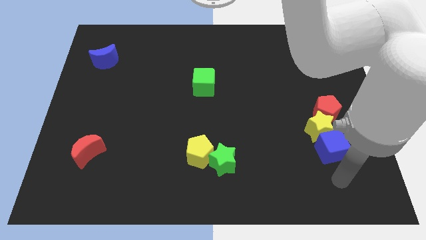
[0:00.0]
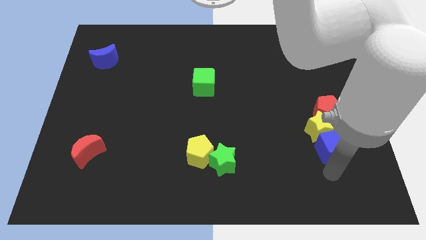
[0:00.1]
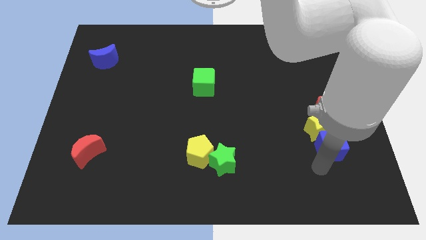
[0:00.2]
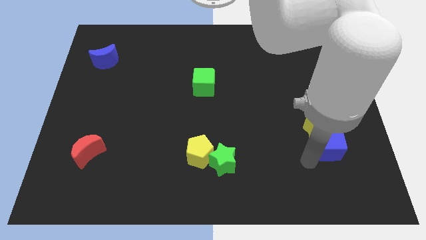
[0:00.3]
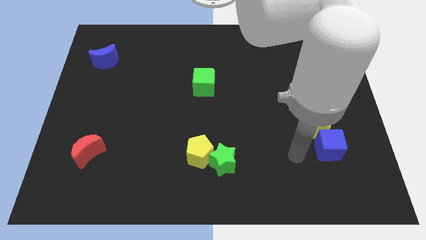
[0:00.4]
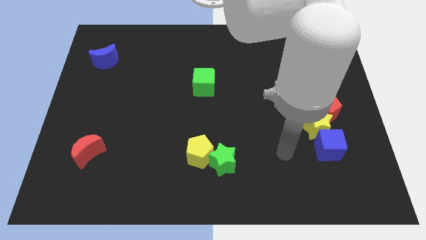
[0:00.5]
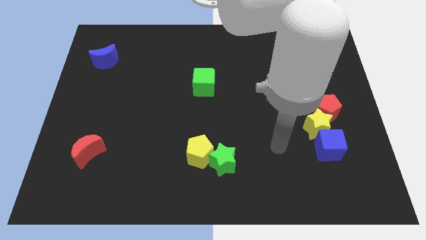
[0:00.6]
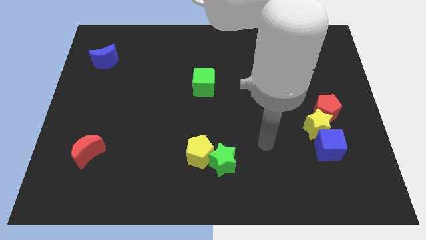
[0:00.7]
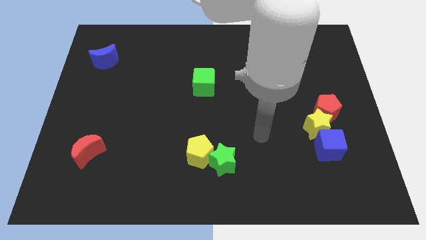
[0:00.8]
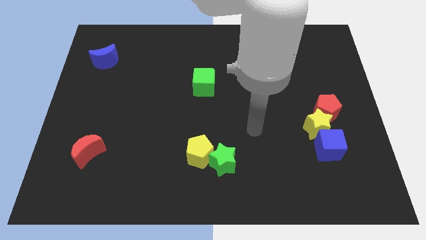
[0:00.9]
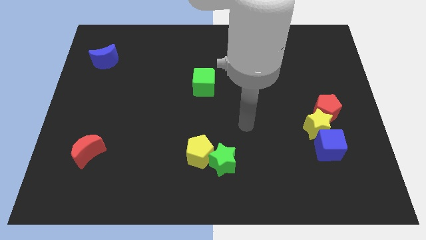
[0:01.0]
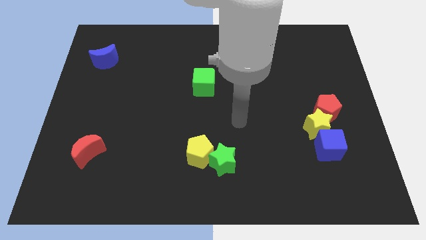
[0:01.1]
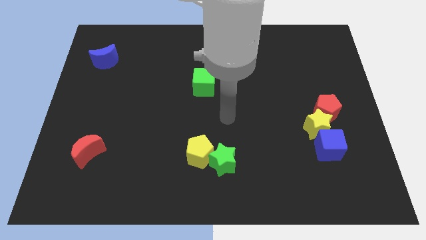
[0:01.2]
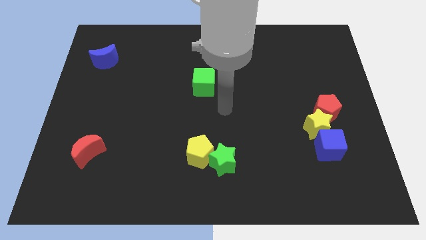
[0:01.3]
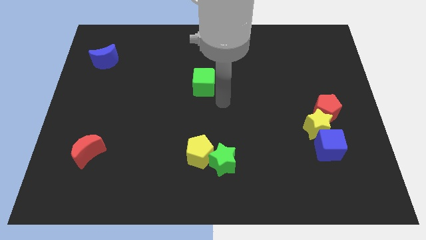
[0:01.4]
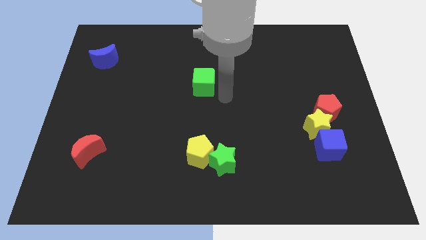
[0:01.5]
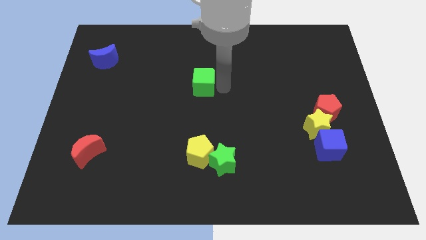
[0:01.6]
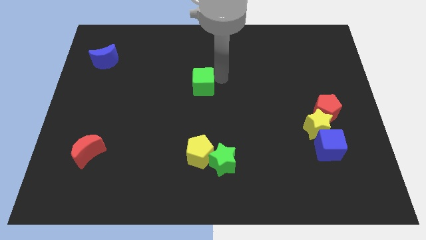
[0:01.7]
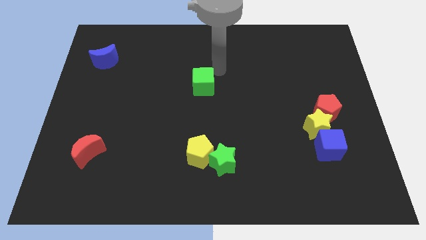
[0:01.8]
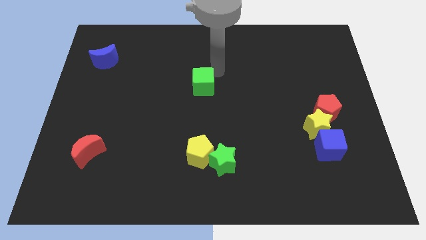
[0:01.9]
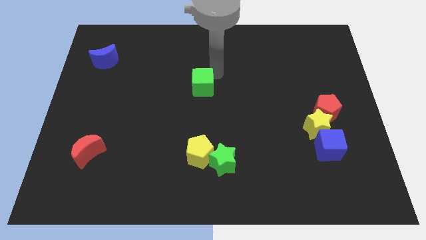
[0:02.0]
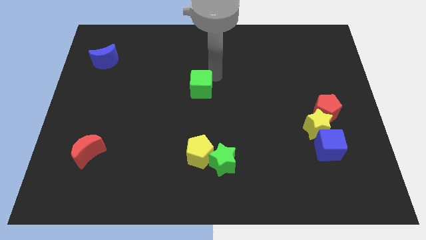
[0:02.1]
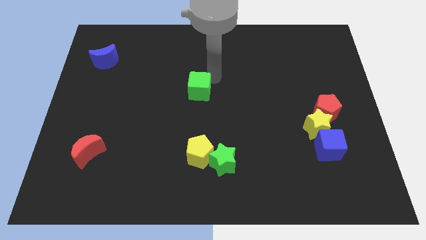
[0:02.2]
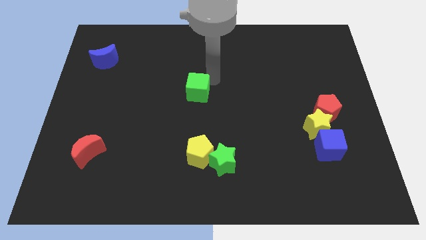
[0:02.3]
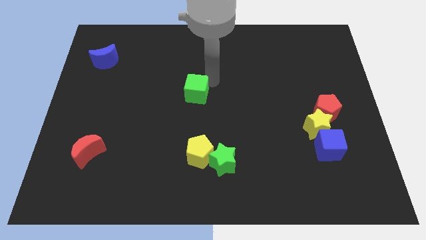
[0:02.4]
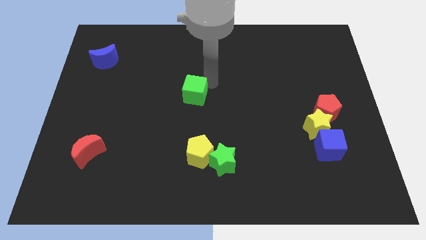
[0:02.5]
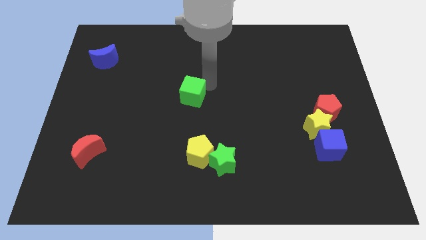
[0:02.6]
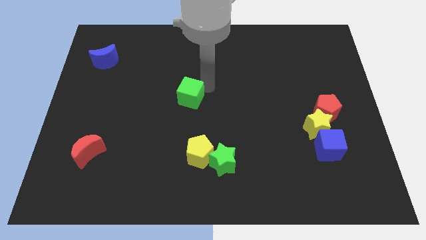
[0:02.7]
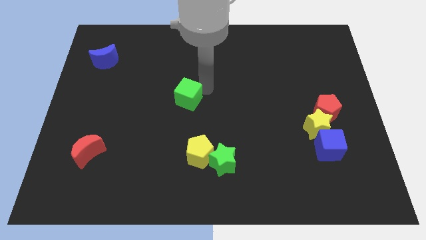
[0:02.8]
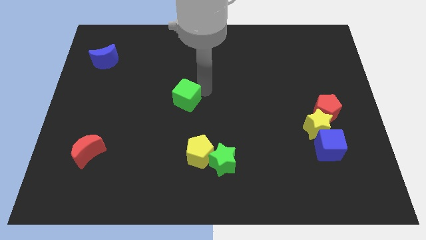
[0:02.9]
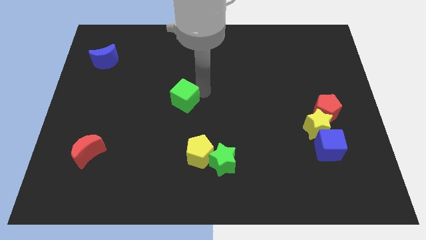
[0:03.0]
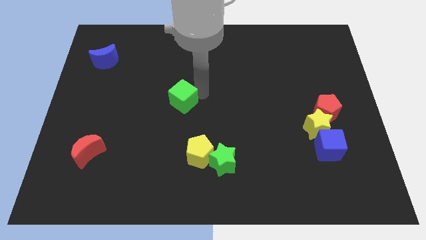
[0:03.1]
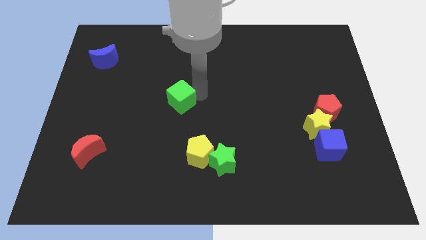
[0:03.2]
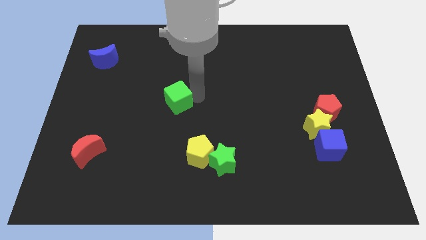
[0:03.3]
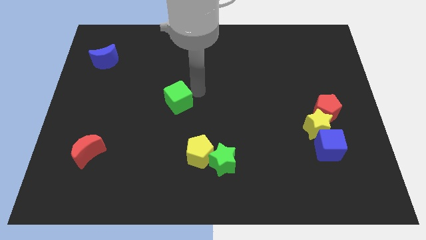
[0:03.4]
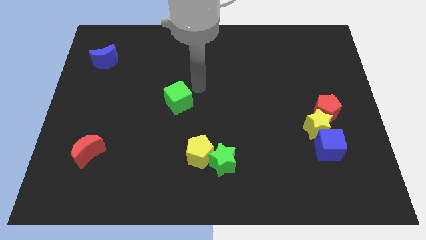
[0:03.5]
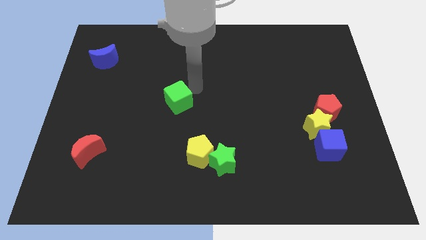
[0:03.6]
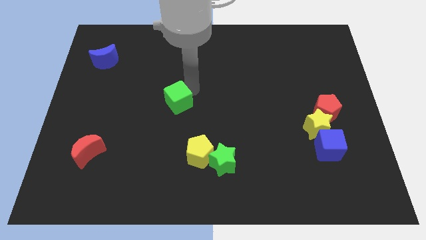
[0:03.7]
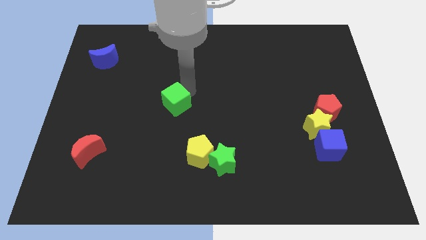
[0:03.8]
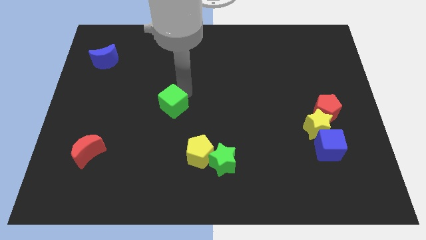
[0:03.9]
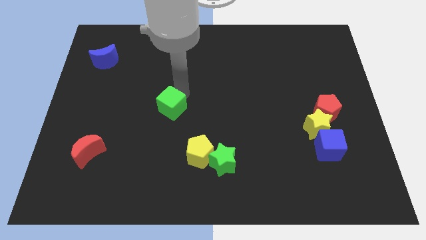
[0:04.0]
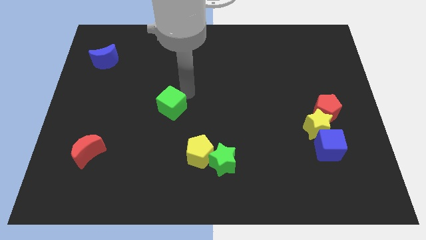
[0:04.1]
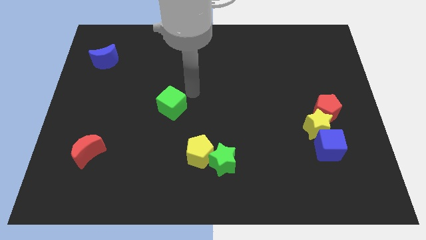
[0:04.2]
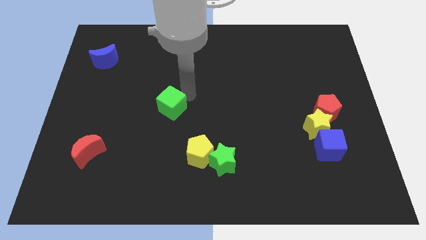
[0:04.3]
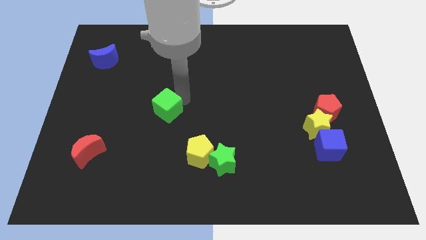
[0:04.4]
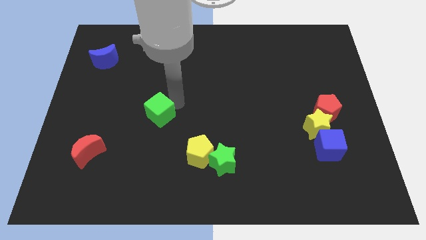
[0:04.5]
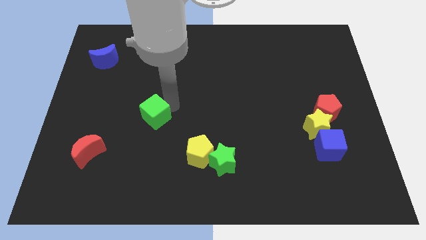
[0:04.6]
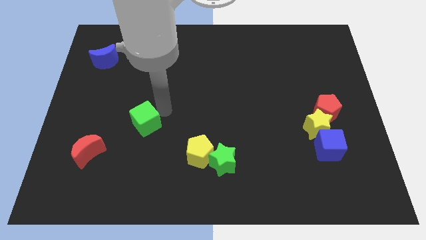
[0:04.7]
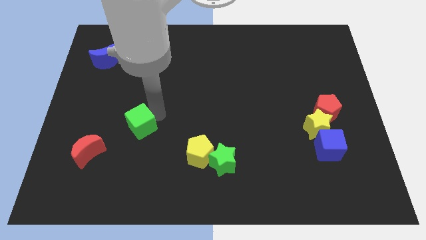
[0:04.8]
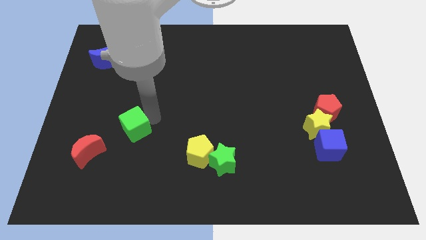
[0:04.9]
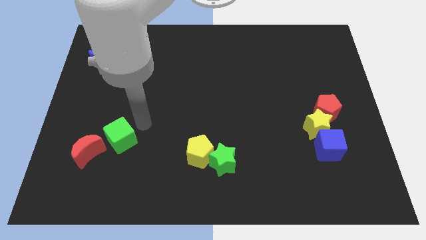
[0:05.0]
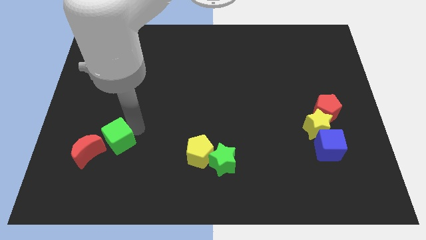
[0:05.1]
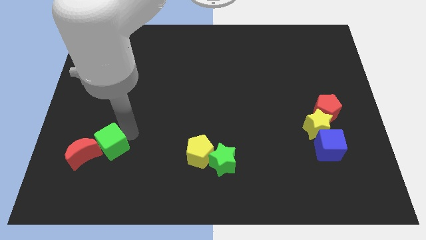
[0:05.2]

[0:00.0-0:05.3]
push the green cube towards the red moon

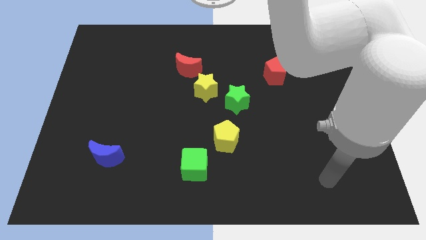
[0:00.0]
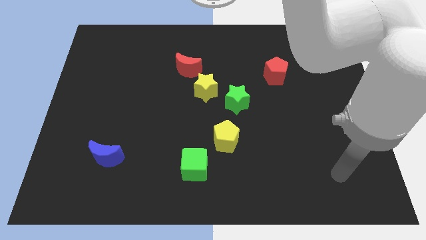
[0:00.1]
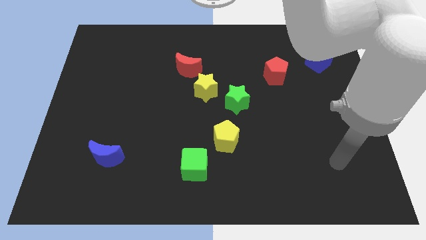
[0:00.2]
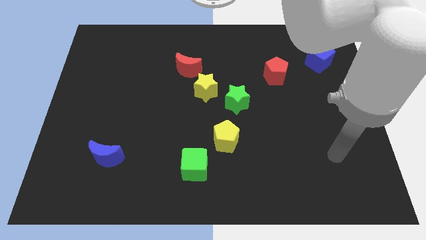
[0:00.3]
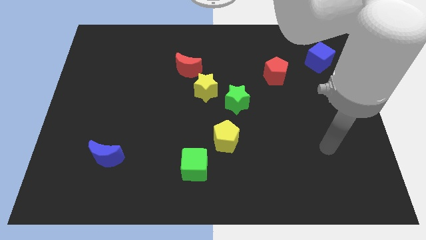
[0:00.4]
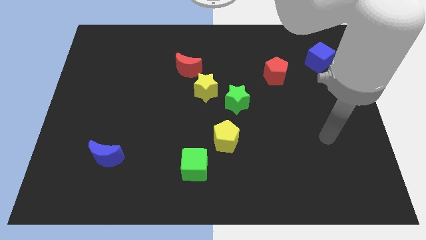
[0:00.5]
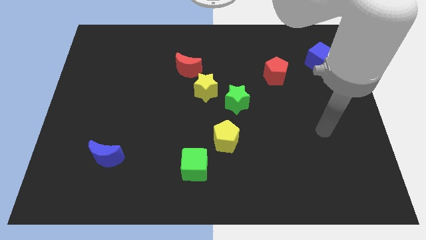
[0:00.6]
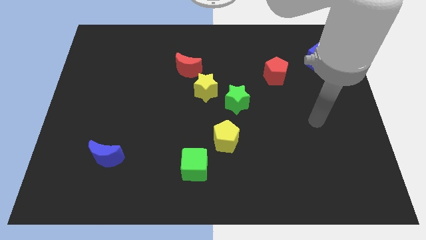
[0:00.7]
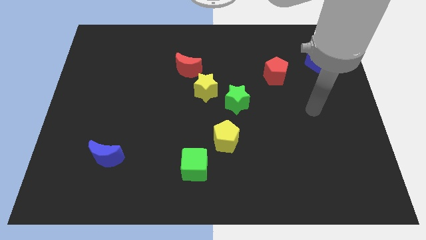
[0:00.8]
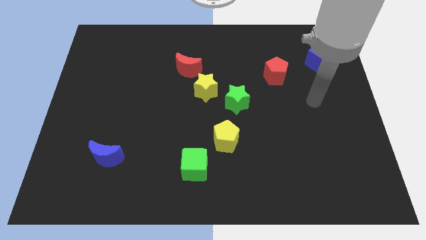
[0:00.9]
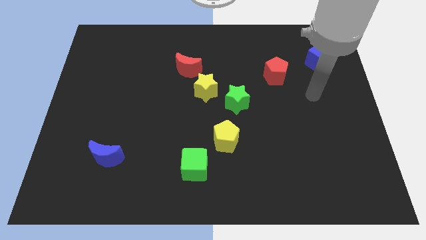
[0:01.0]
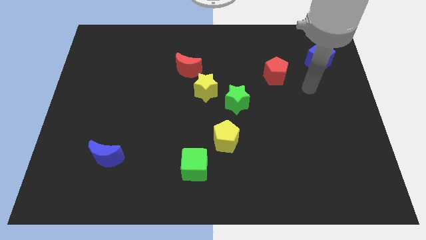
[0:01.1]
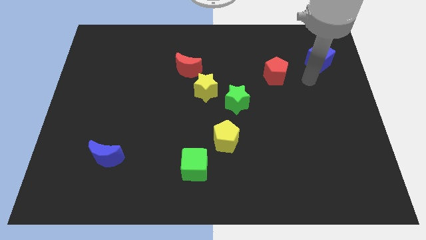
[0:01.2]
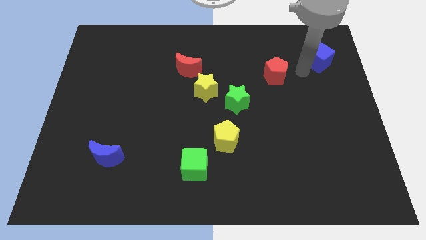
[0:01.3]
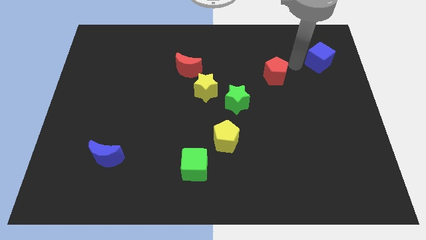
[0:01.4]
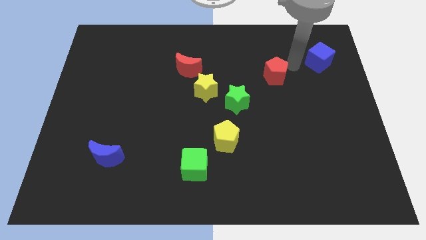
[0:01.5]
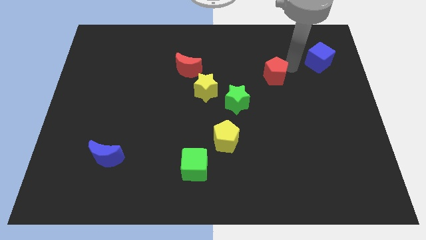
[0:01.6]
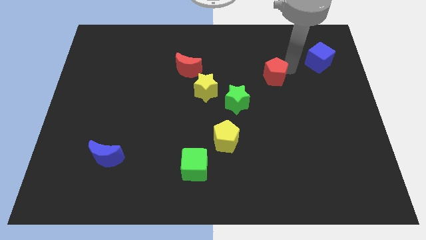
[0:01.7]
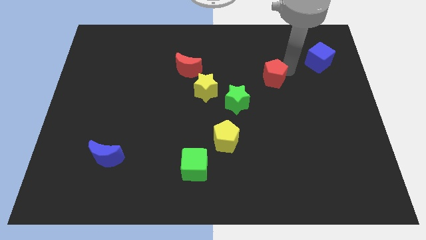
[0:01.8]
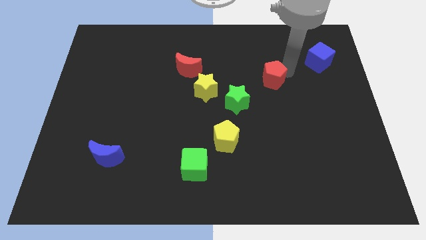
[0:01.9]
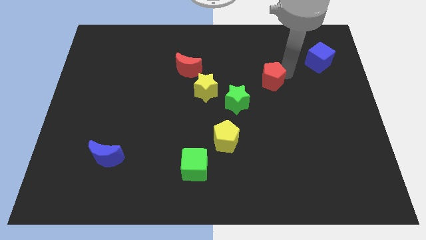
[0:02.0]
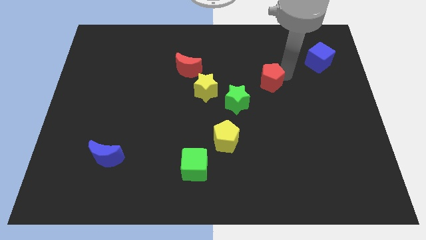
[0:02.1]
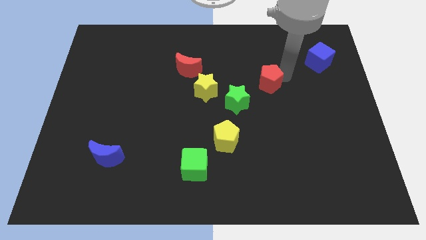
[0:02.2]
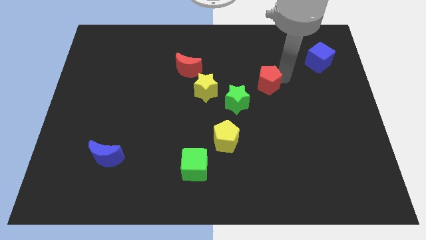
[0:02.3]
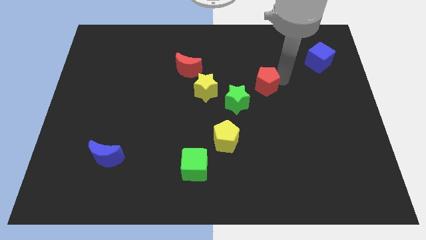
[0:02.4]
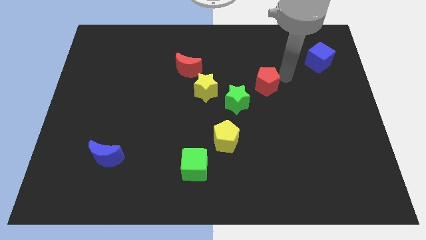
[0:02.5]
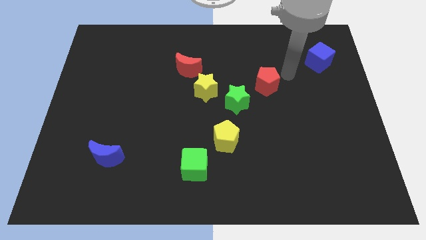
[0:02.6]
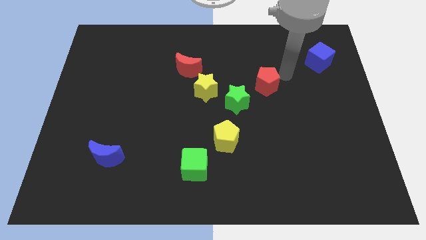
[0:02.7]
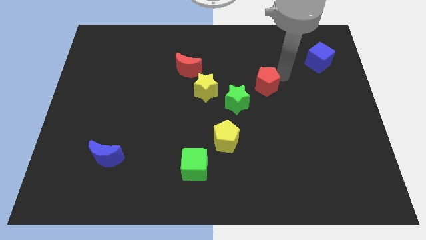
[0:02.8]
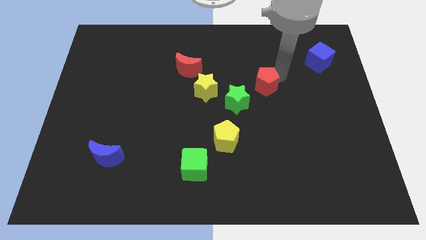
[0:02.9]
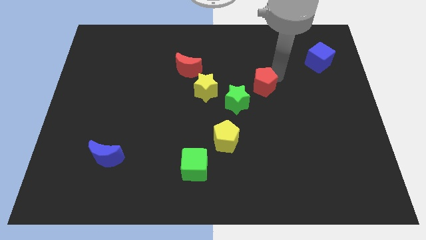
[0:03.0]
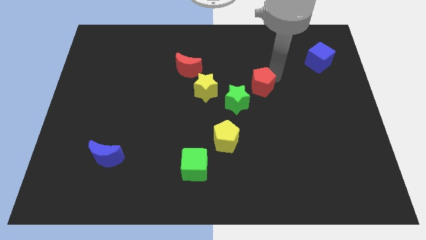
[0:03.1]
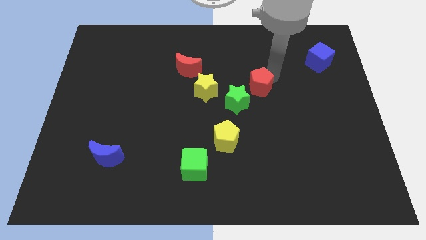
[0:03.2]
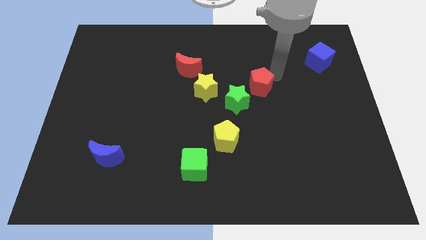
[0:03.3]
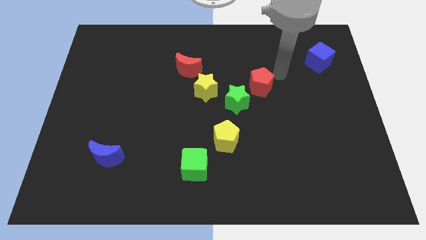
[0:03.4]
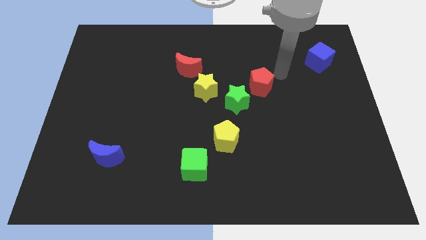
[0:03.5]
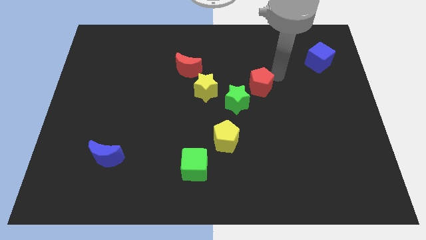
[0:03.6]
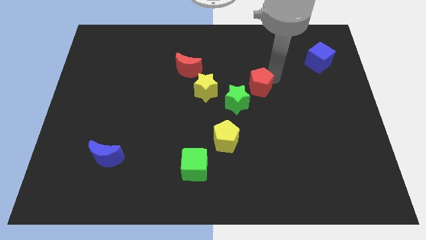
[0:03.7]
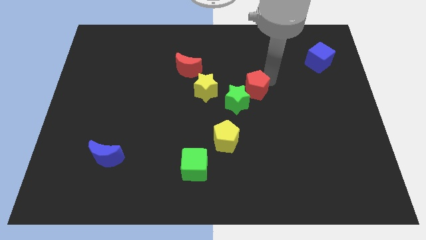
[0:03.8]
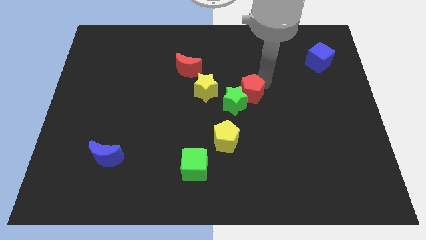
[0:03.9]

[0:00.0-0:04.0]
put the red pentagon close to the green star
